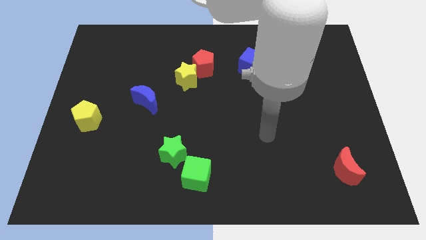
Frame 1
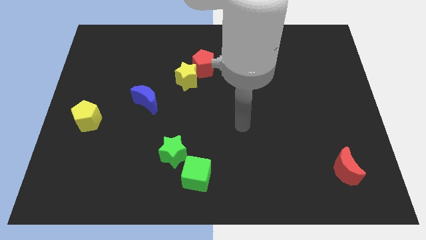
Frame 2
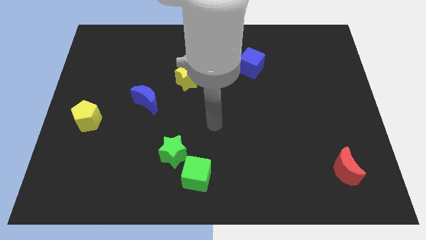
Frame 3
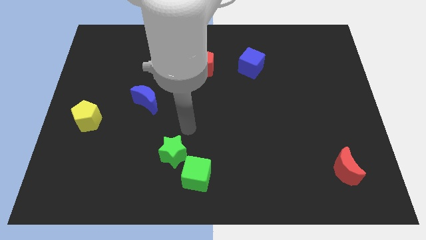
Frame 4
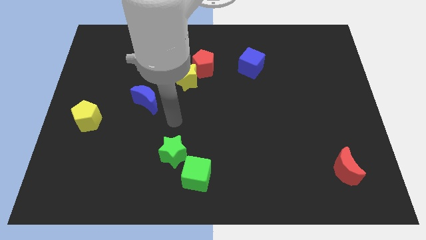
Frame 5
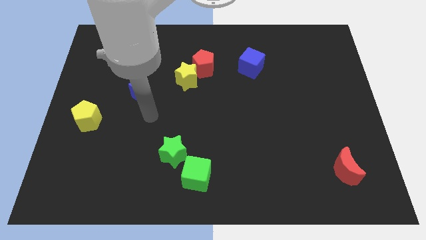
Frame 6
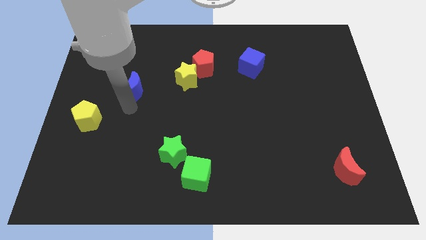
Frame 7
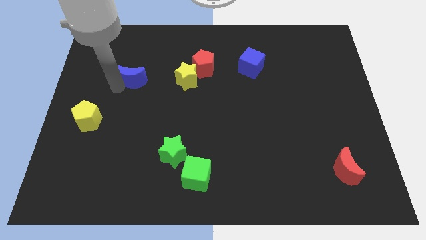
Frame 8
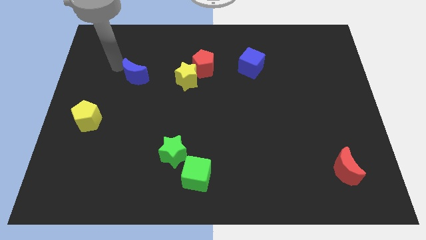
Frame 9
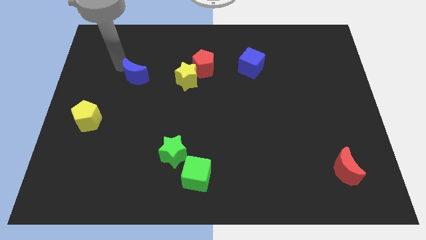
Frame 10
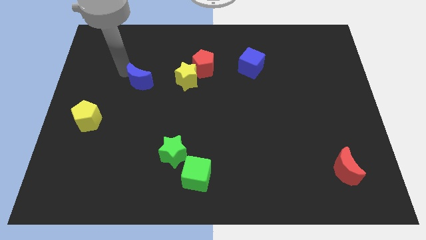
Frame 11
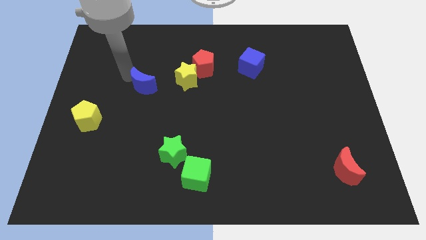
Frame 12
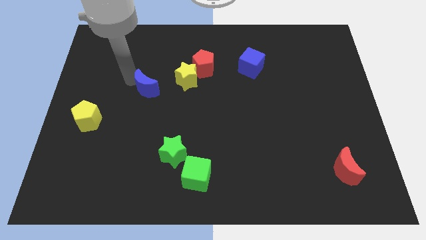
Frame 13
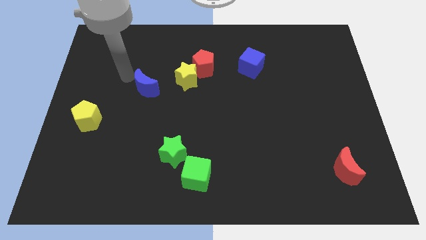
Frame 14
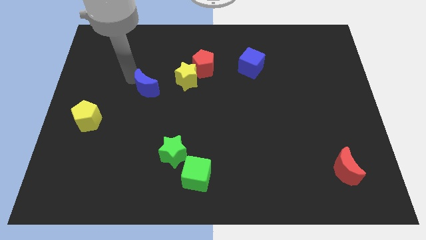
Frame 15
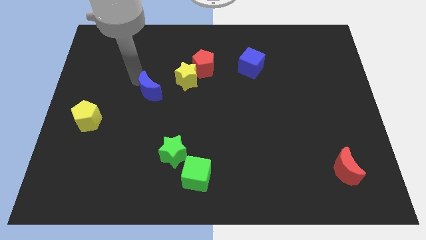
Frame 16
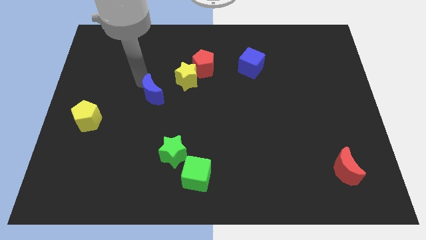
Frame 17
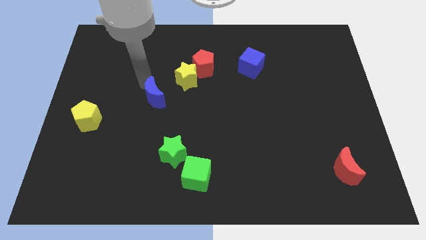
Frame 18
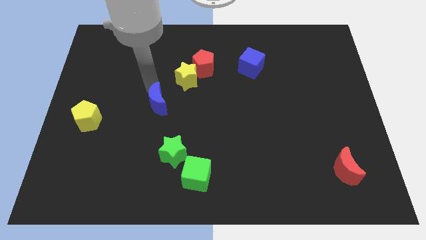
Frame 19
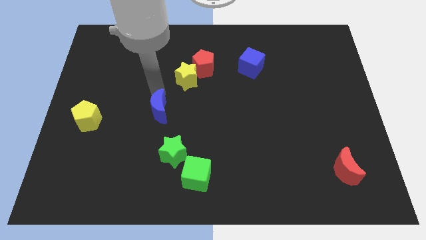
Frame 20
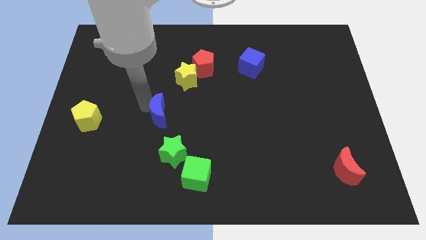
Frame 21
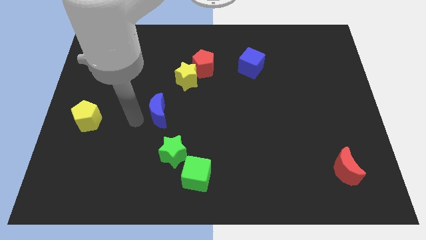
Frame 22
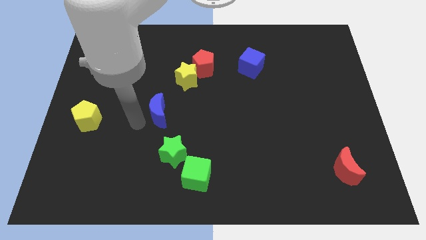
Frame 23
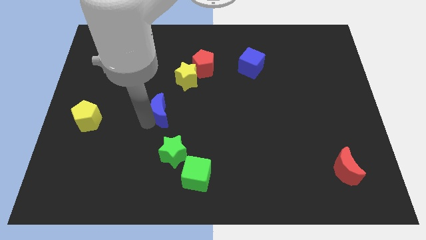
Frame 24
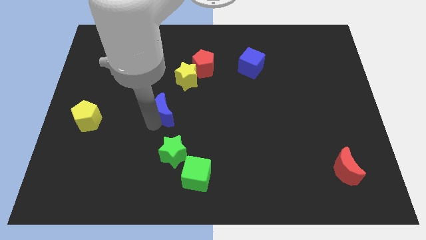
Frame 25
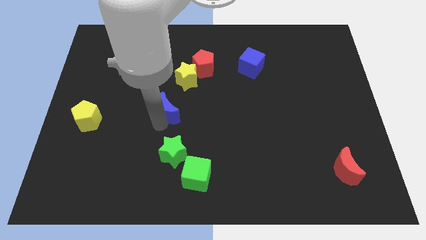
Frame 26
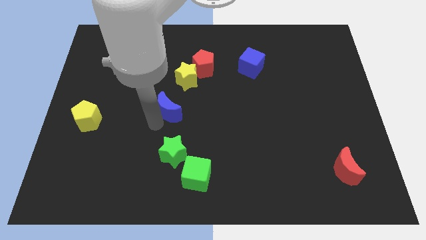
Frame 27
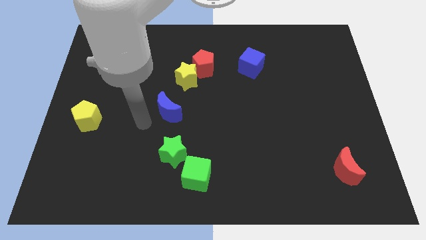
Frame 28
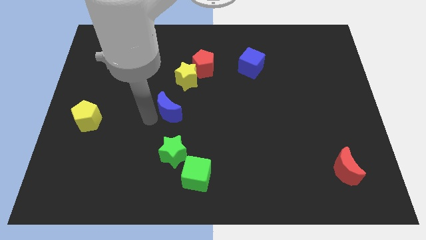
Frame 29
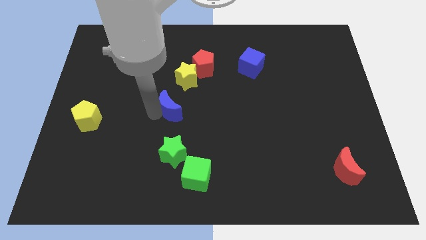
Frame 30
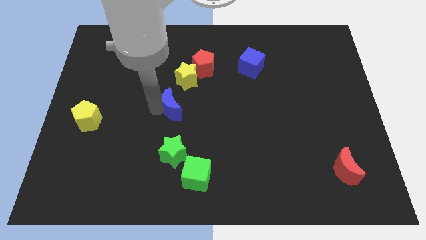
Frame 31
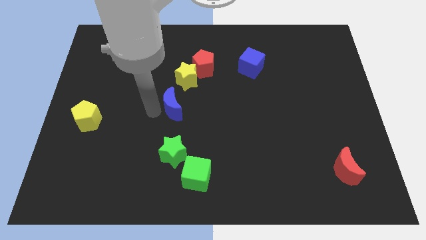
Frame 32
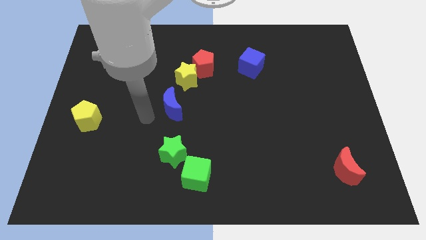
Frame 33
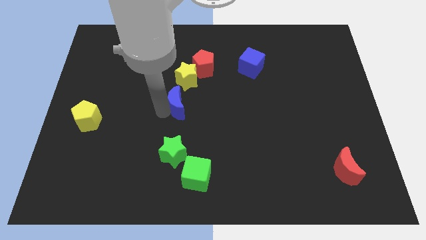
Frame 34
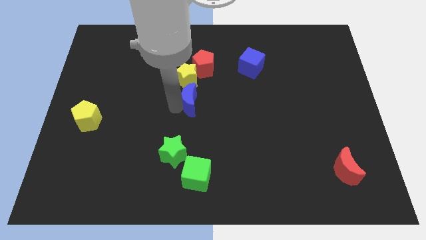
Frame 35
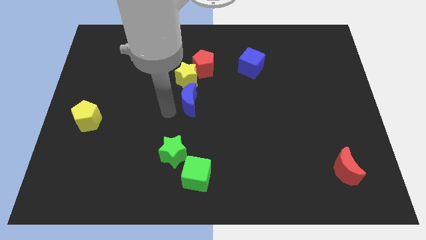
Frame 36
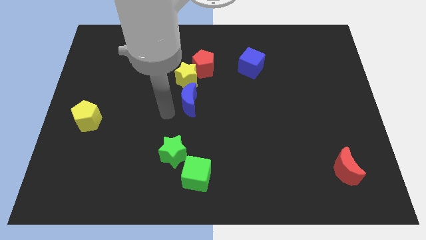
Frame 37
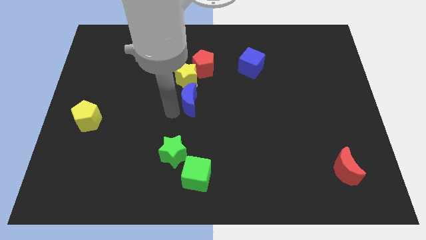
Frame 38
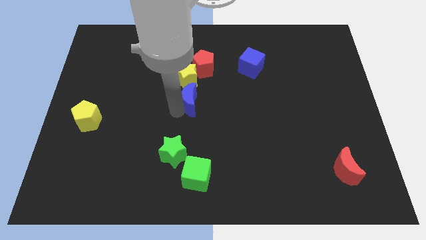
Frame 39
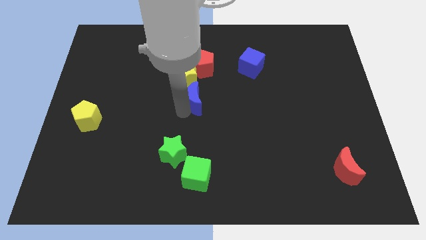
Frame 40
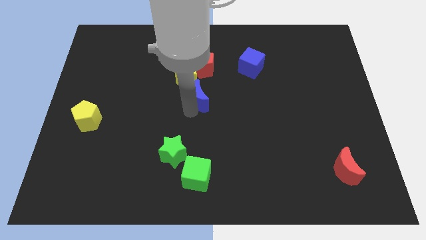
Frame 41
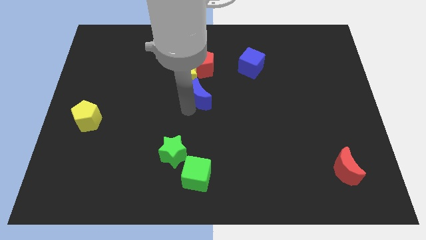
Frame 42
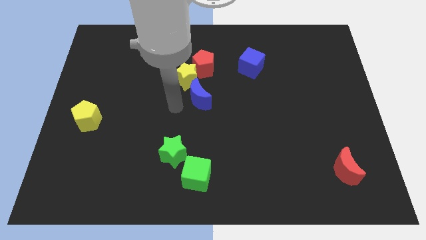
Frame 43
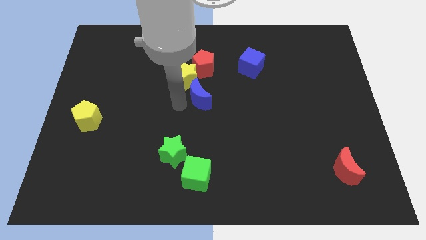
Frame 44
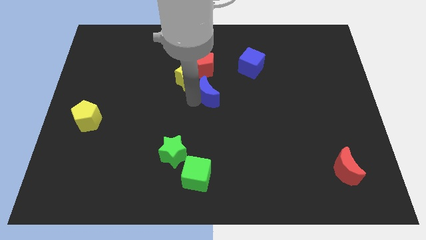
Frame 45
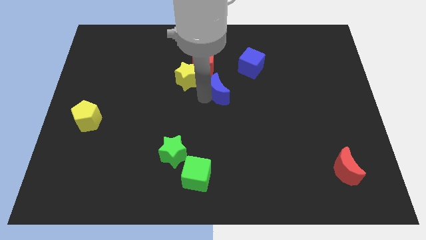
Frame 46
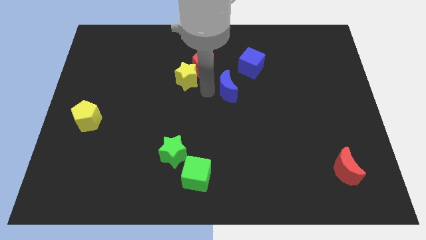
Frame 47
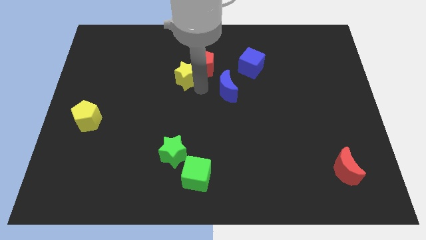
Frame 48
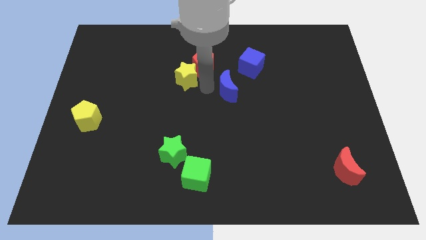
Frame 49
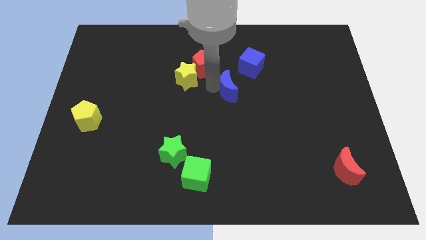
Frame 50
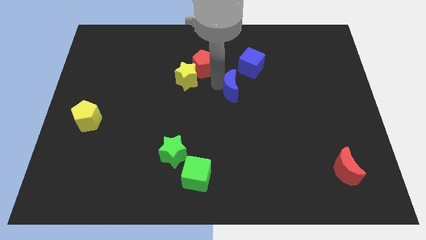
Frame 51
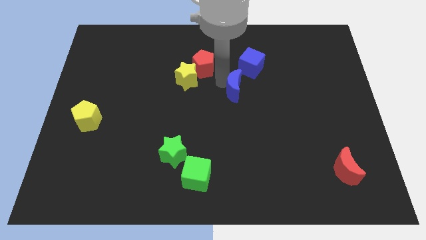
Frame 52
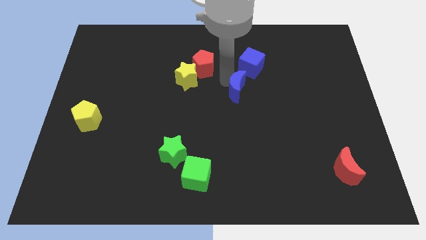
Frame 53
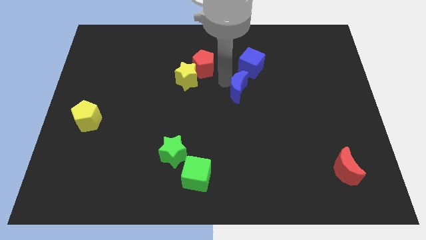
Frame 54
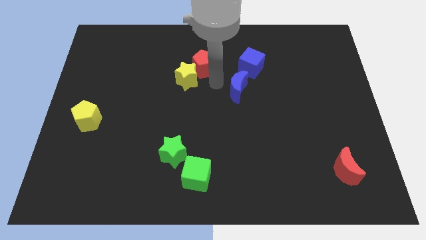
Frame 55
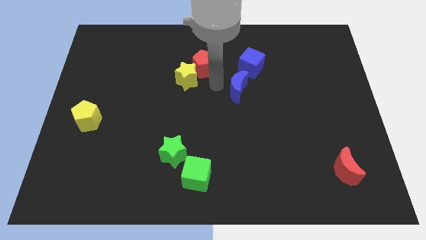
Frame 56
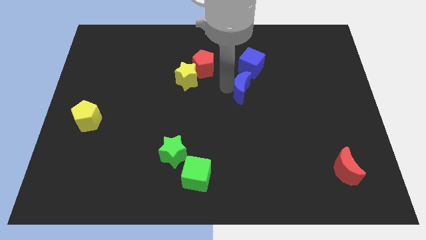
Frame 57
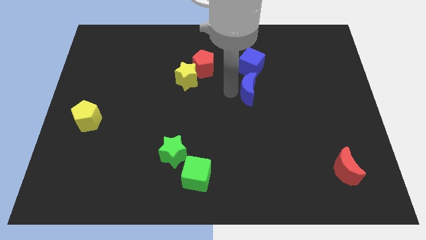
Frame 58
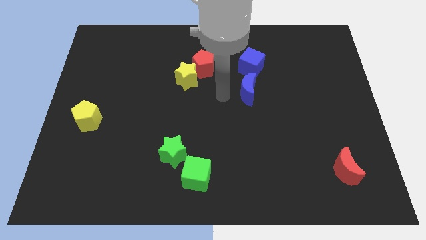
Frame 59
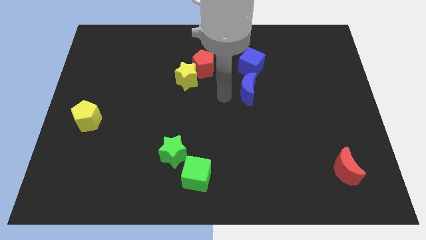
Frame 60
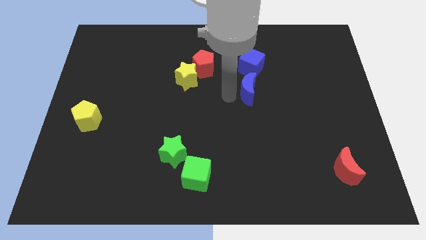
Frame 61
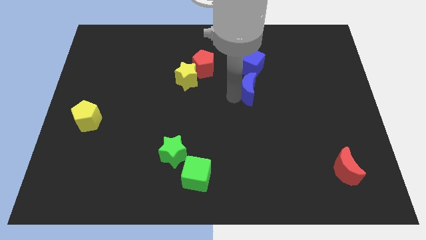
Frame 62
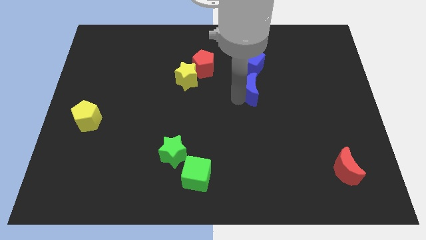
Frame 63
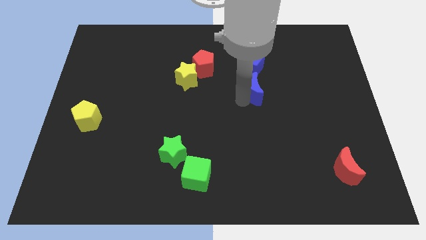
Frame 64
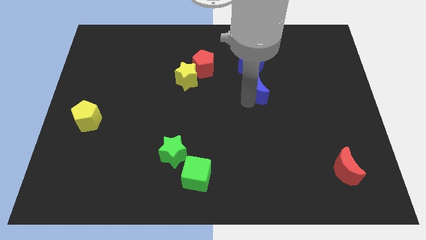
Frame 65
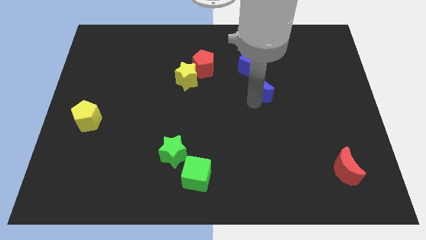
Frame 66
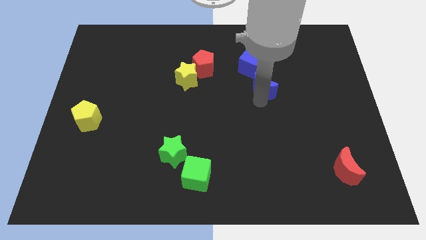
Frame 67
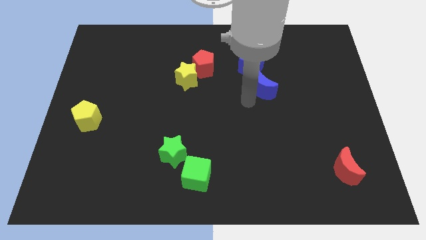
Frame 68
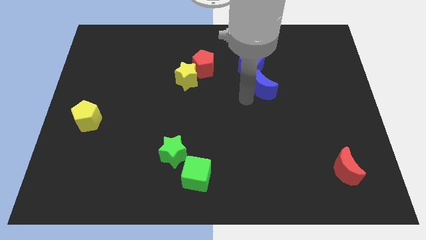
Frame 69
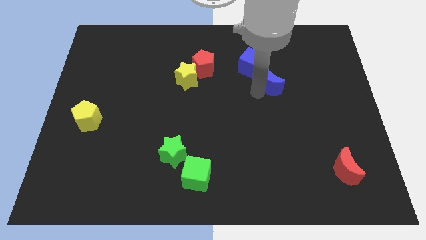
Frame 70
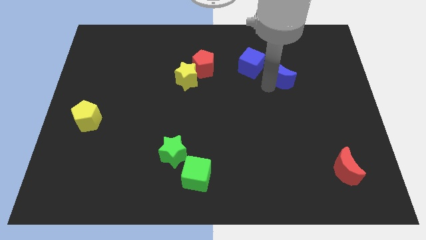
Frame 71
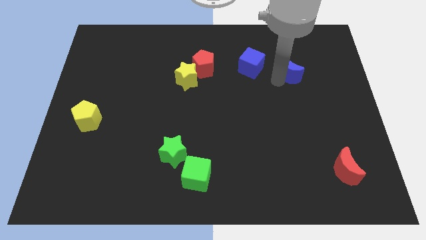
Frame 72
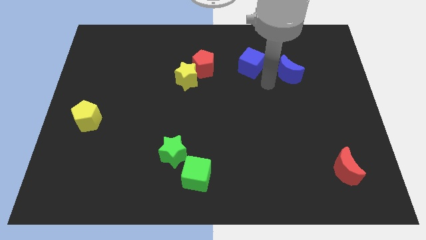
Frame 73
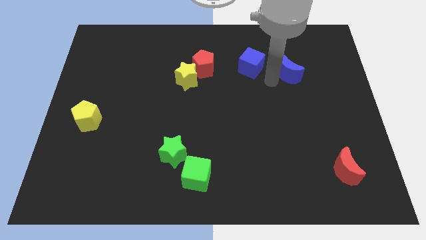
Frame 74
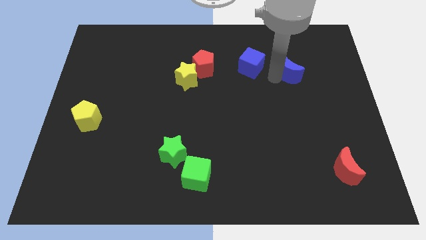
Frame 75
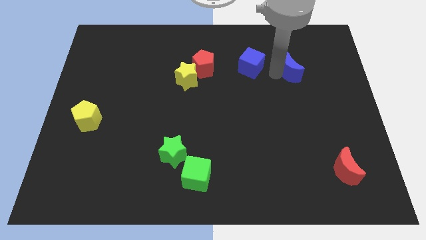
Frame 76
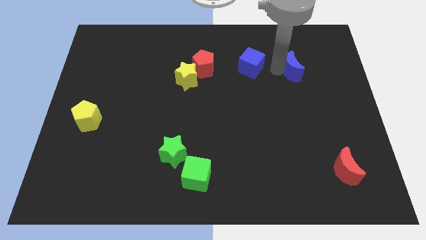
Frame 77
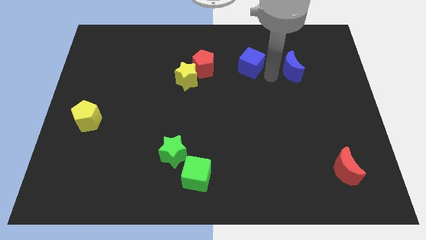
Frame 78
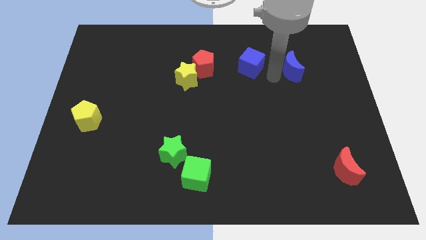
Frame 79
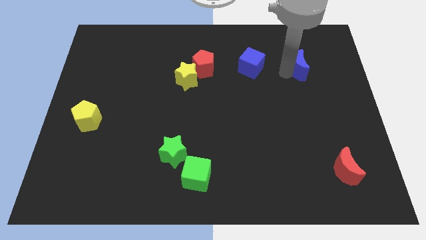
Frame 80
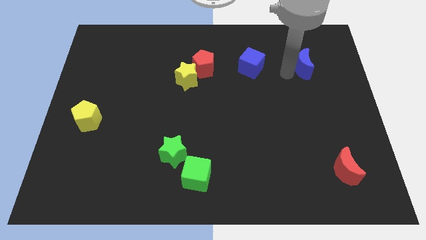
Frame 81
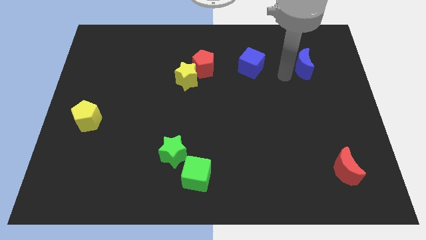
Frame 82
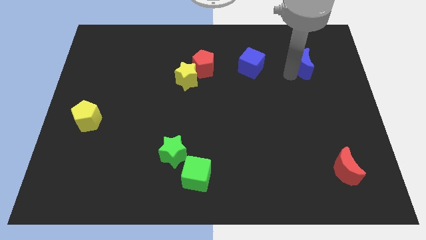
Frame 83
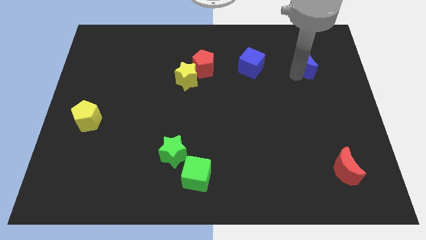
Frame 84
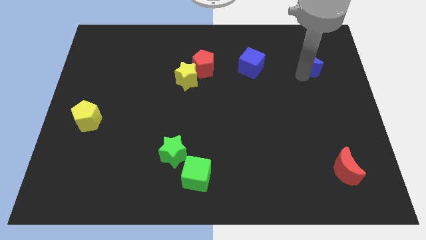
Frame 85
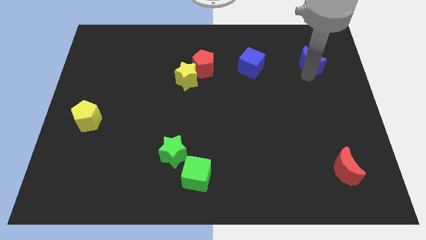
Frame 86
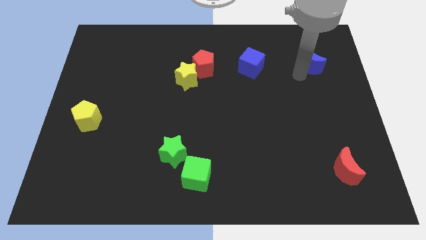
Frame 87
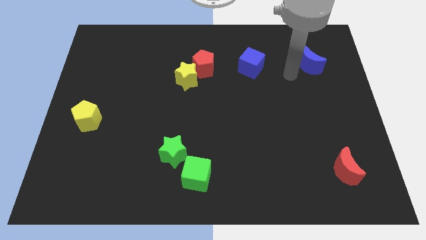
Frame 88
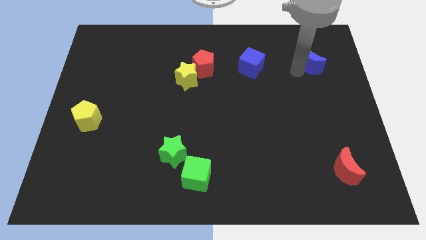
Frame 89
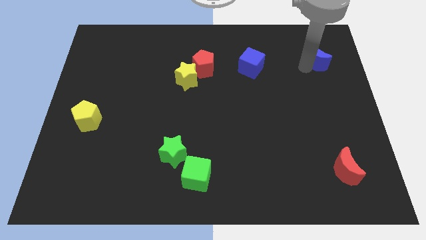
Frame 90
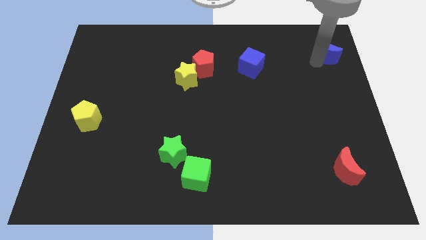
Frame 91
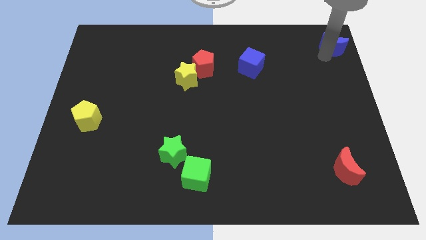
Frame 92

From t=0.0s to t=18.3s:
push the blue moon to the top right corner
